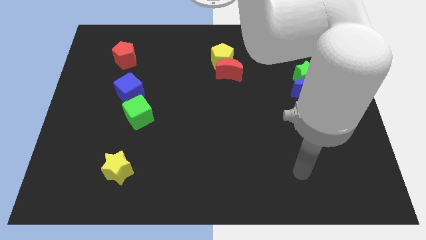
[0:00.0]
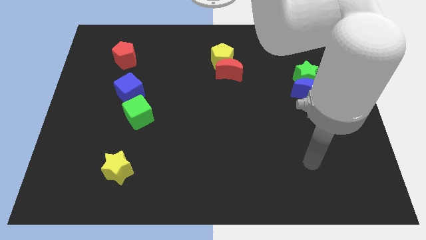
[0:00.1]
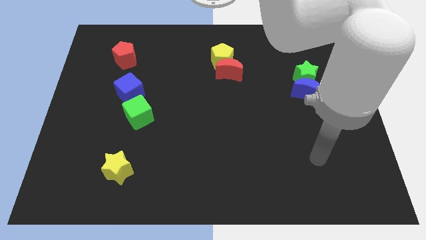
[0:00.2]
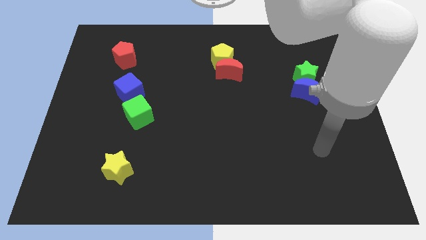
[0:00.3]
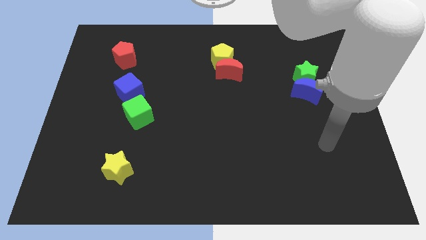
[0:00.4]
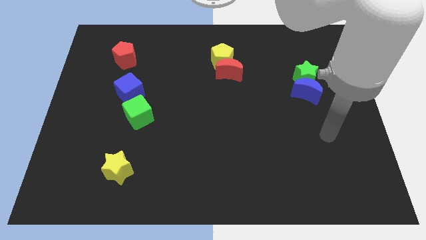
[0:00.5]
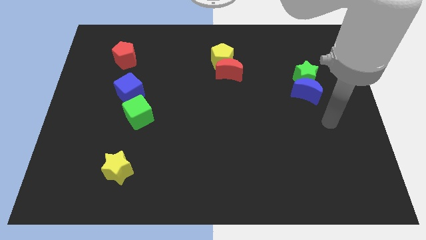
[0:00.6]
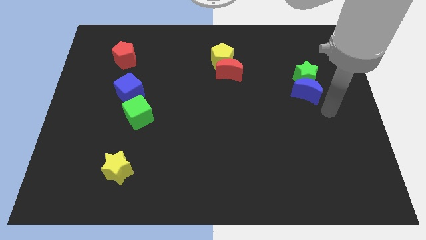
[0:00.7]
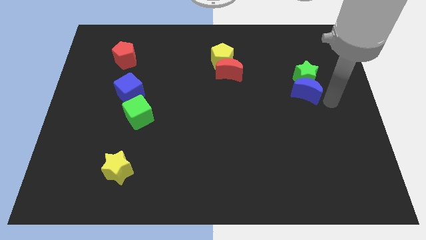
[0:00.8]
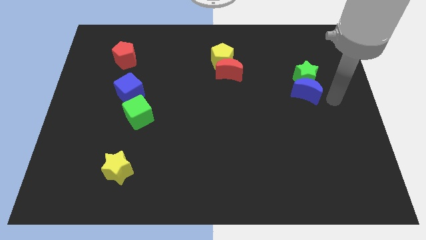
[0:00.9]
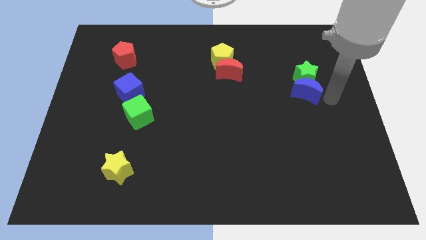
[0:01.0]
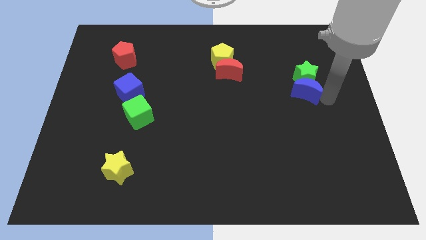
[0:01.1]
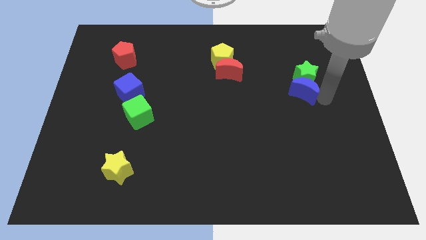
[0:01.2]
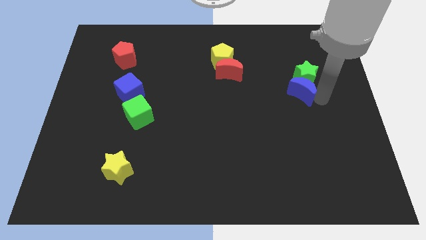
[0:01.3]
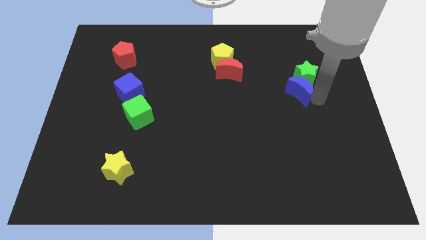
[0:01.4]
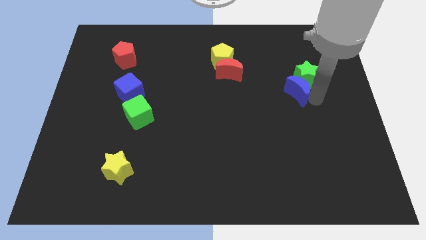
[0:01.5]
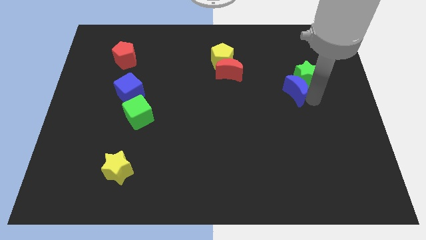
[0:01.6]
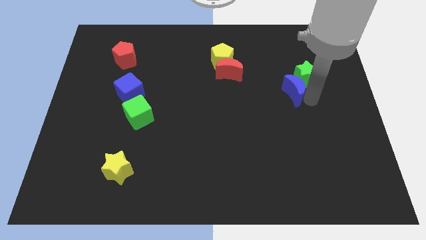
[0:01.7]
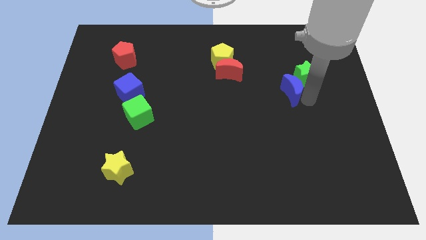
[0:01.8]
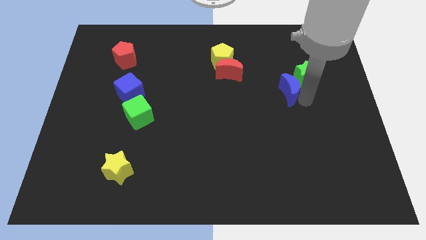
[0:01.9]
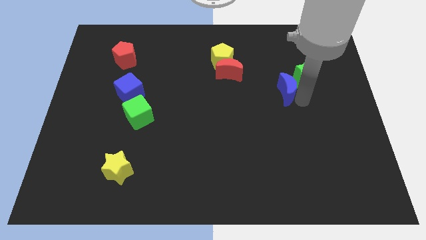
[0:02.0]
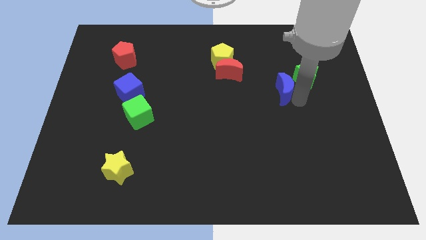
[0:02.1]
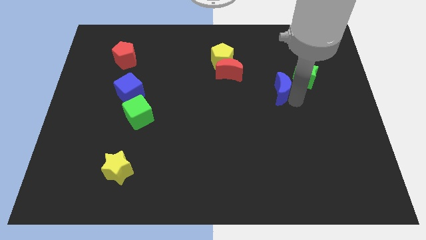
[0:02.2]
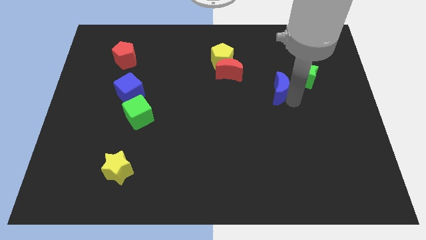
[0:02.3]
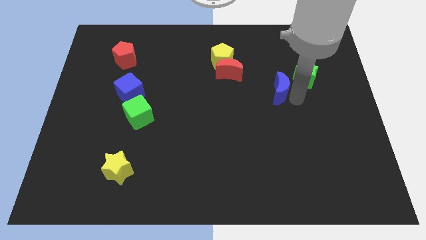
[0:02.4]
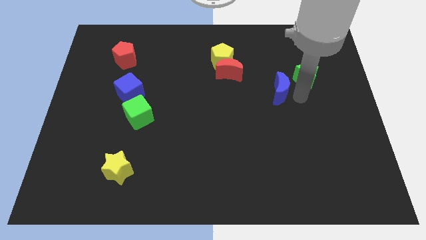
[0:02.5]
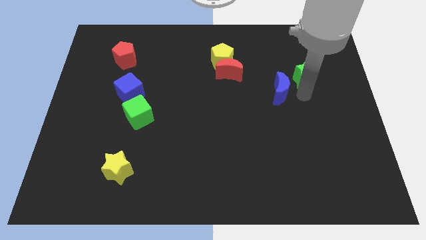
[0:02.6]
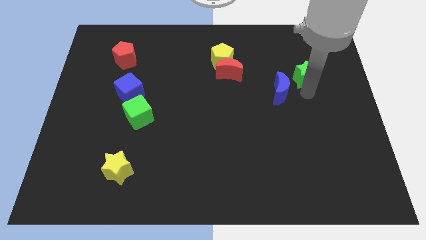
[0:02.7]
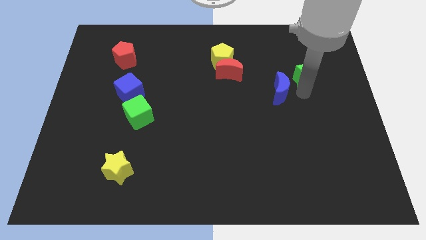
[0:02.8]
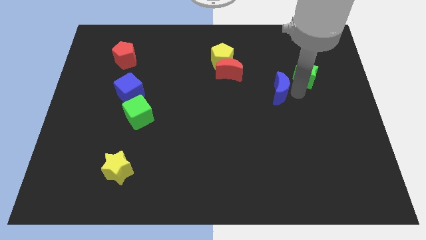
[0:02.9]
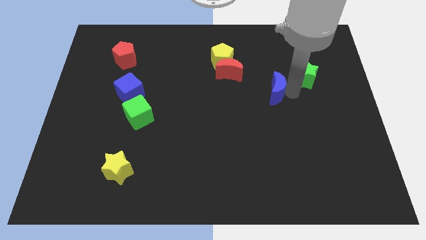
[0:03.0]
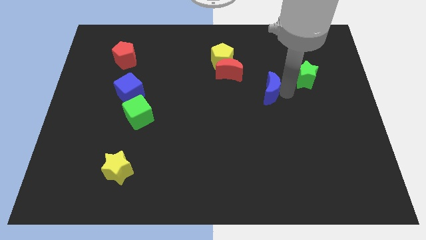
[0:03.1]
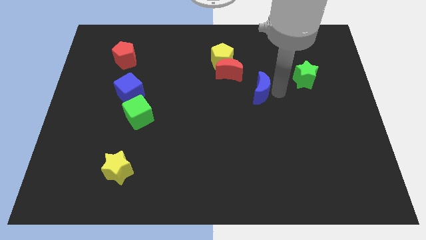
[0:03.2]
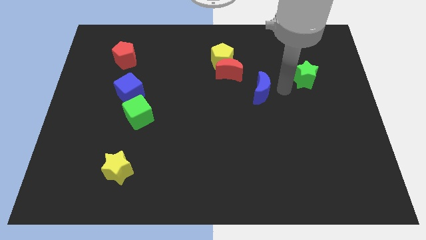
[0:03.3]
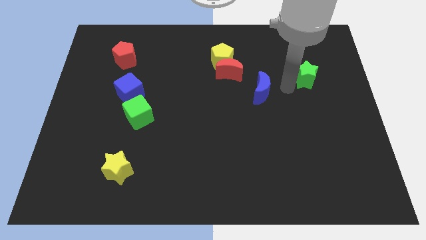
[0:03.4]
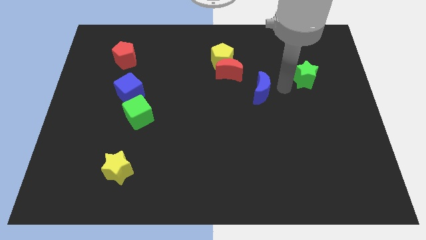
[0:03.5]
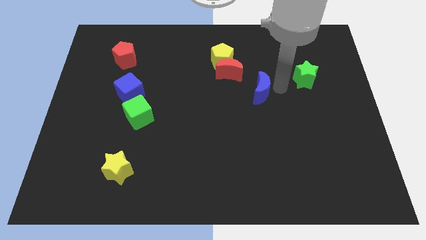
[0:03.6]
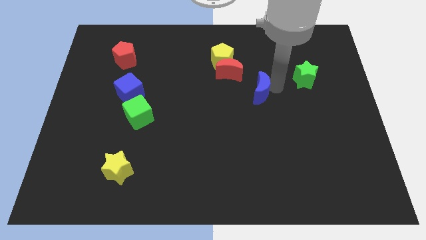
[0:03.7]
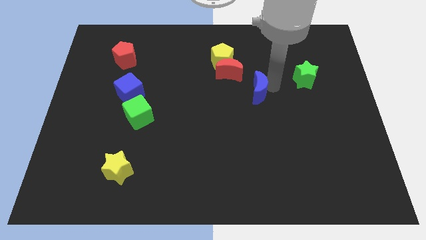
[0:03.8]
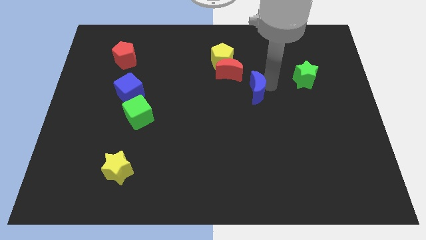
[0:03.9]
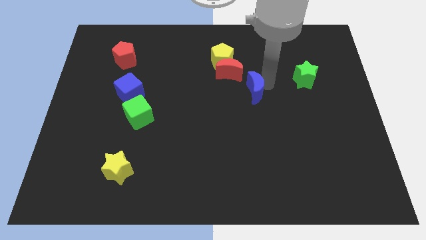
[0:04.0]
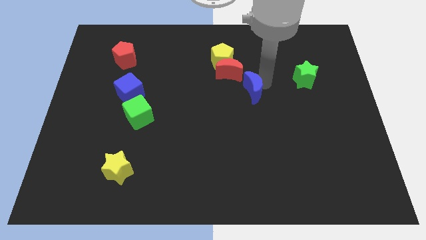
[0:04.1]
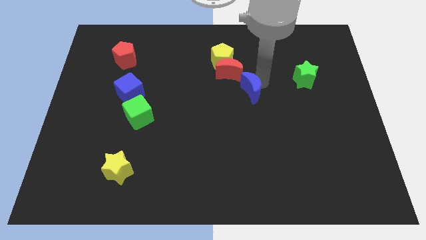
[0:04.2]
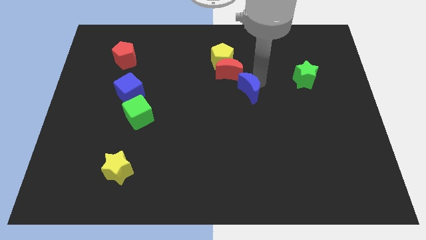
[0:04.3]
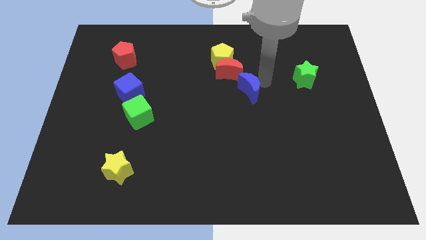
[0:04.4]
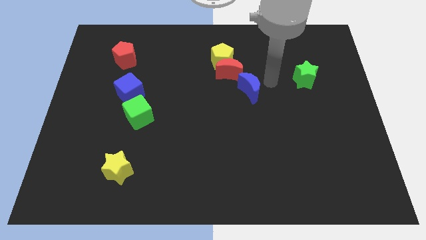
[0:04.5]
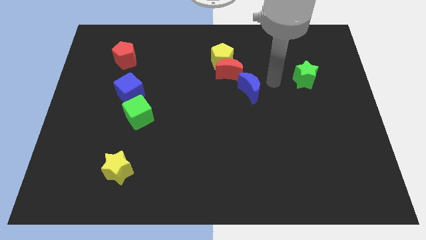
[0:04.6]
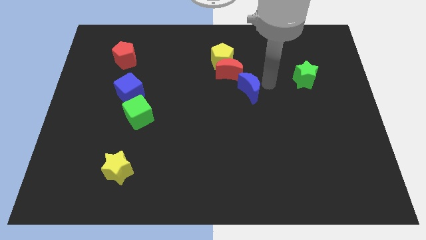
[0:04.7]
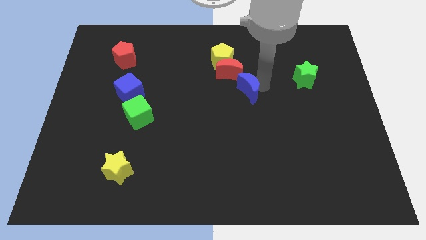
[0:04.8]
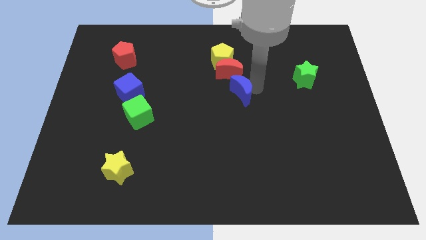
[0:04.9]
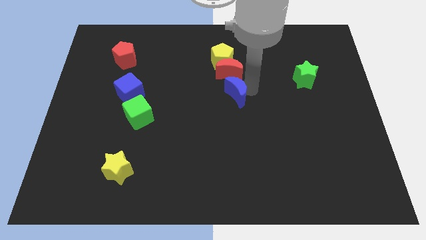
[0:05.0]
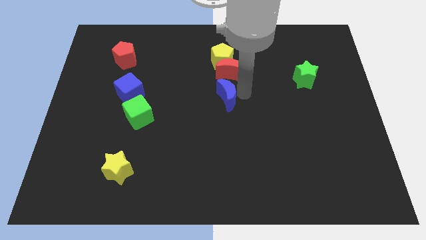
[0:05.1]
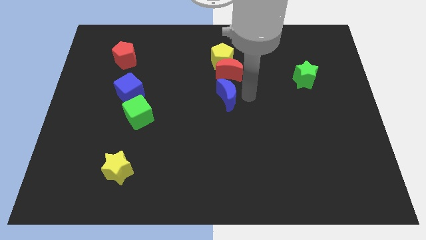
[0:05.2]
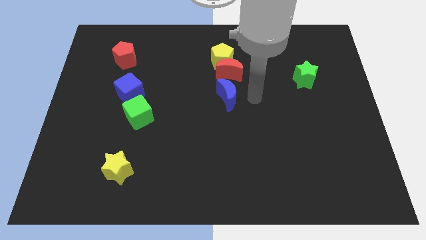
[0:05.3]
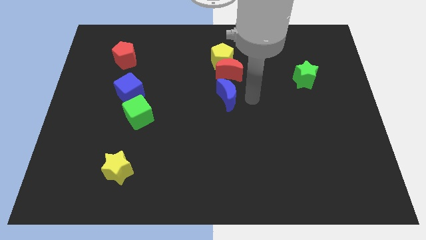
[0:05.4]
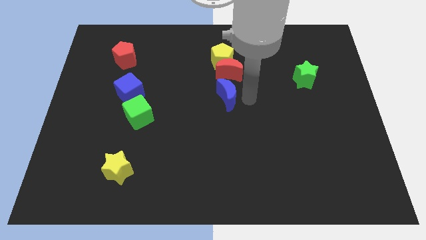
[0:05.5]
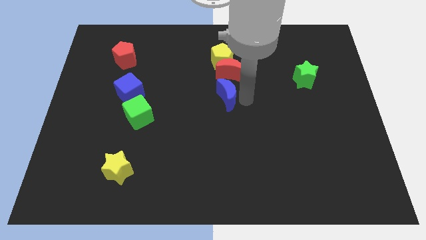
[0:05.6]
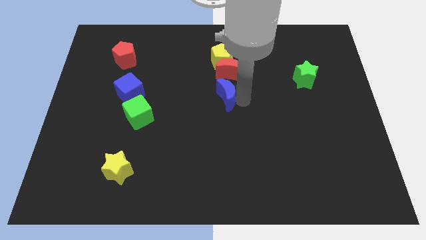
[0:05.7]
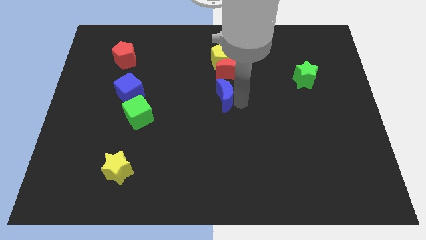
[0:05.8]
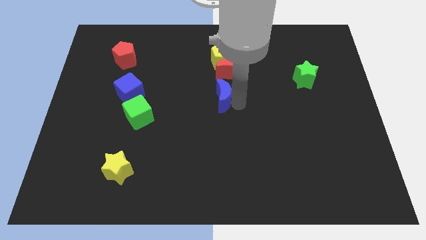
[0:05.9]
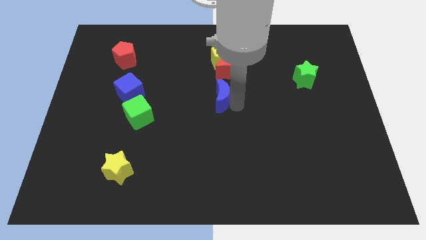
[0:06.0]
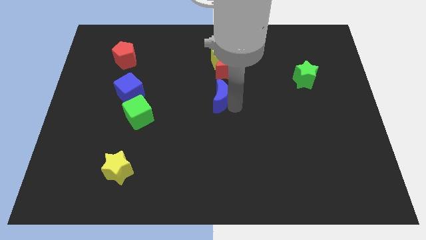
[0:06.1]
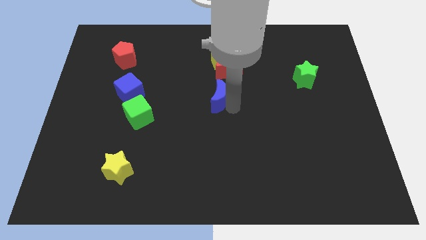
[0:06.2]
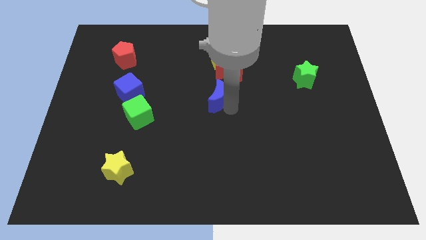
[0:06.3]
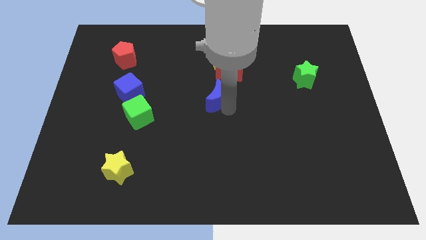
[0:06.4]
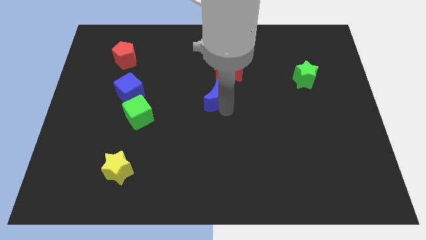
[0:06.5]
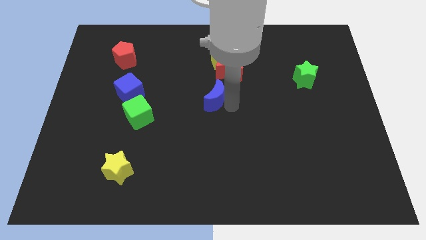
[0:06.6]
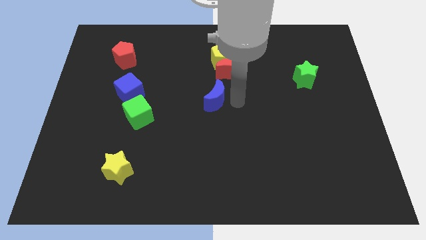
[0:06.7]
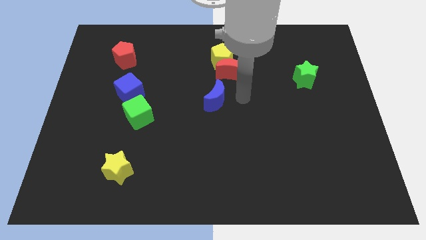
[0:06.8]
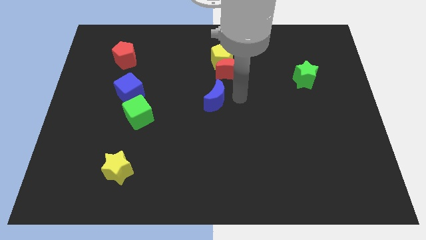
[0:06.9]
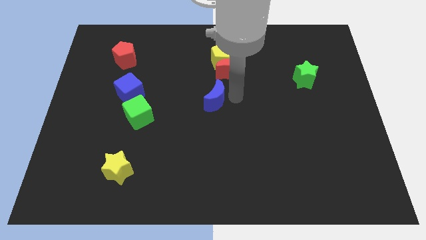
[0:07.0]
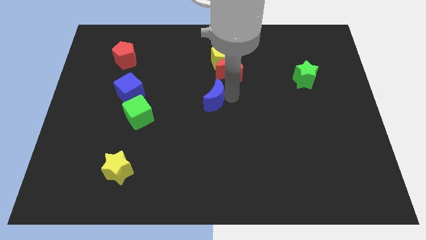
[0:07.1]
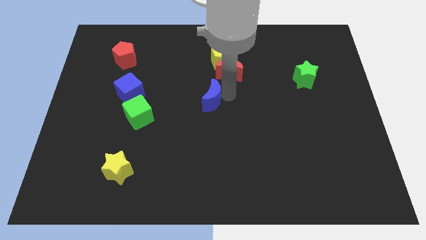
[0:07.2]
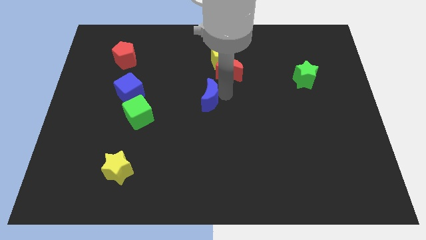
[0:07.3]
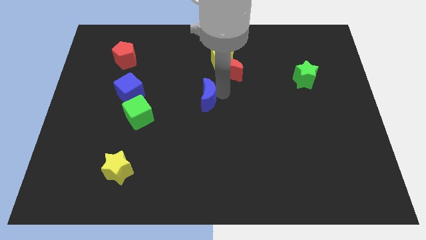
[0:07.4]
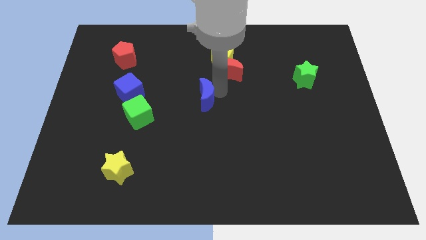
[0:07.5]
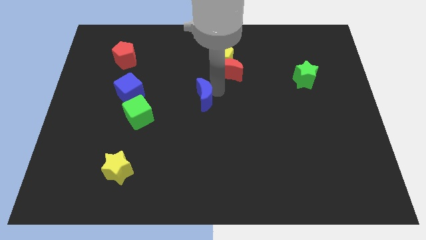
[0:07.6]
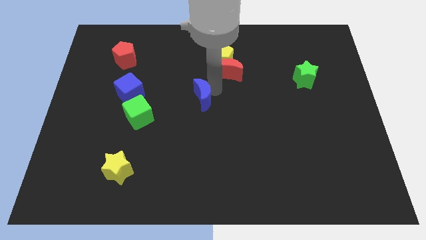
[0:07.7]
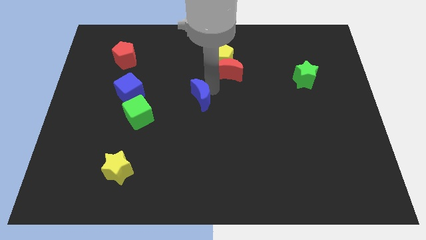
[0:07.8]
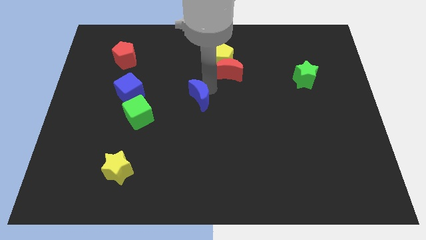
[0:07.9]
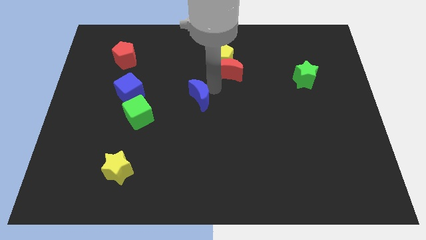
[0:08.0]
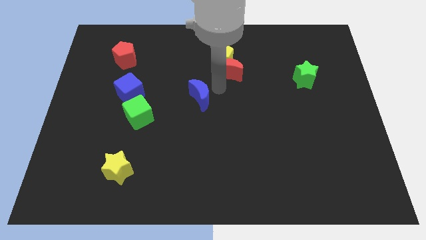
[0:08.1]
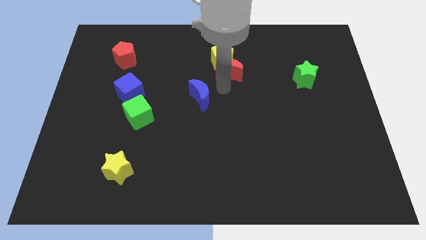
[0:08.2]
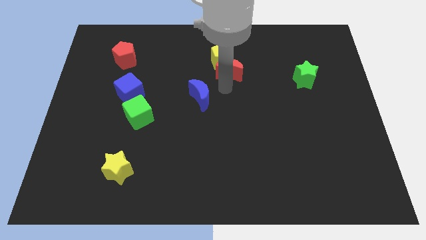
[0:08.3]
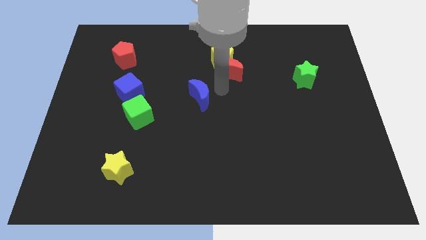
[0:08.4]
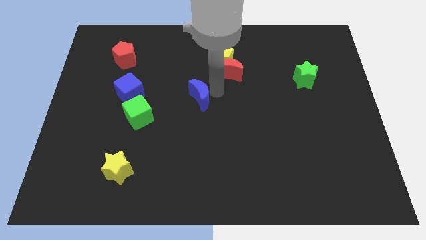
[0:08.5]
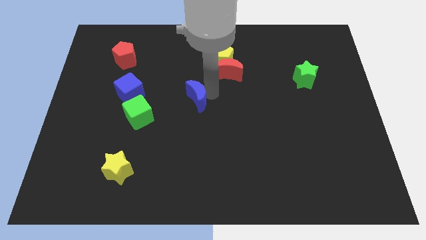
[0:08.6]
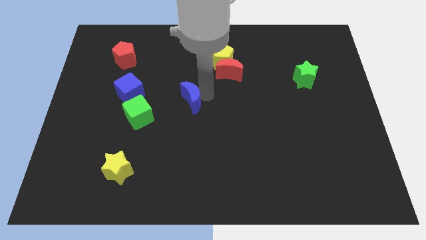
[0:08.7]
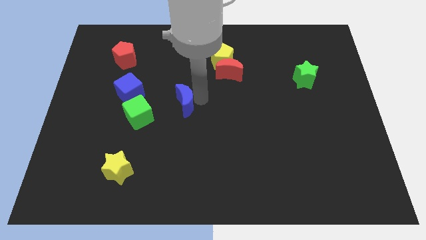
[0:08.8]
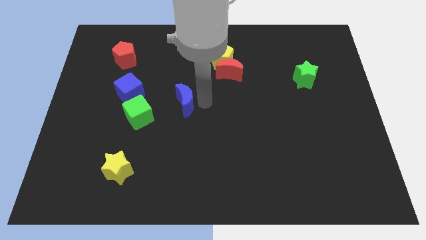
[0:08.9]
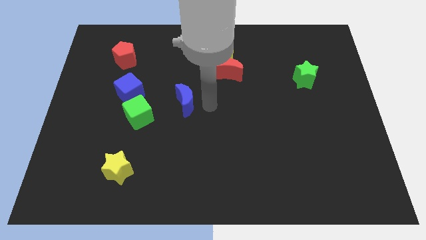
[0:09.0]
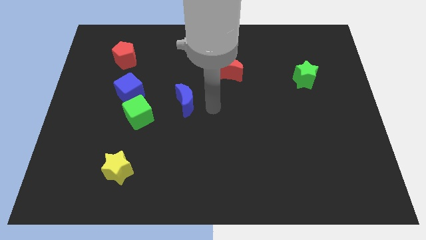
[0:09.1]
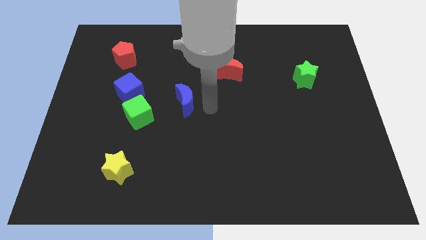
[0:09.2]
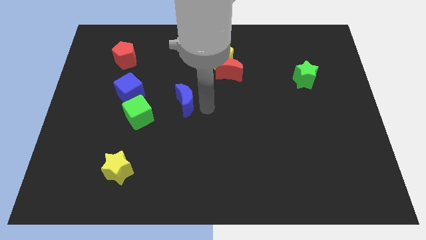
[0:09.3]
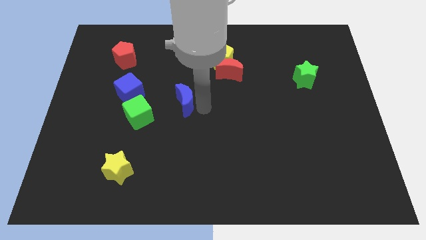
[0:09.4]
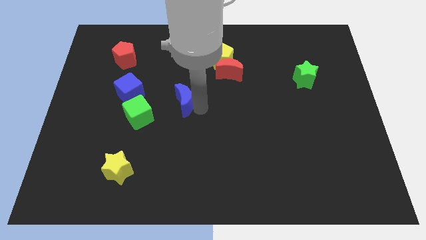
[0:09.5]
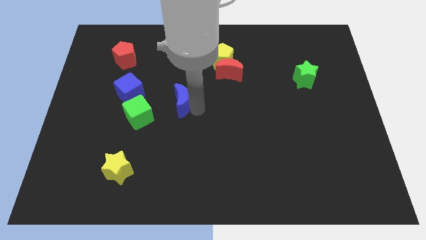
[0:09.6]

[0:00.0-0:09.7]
slide the blue moon diagonally up and to the right of the green cube
